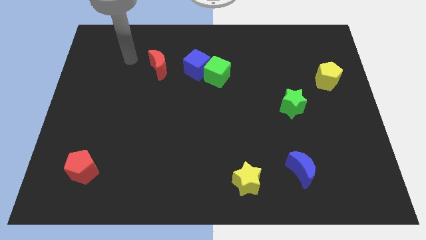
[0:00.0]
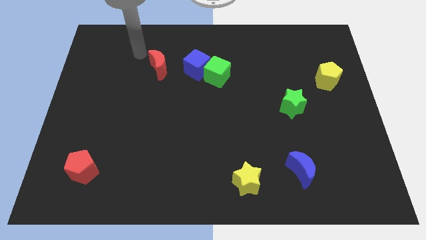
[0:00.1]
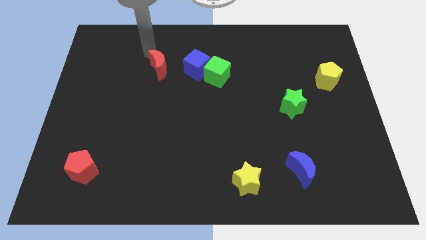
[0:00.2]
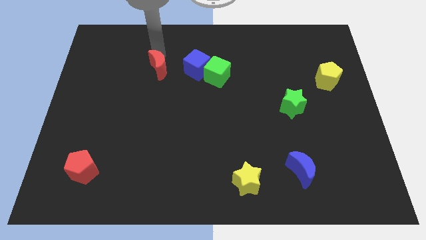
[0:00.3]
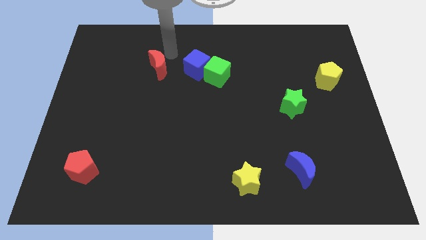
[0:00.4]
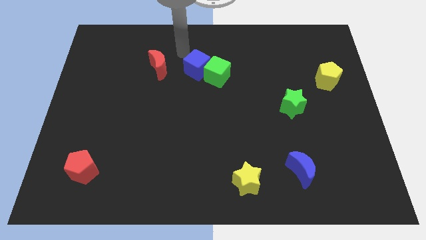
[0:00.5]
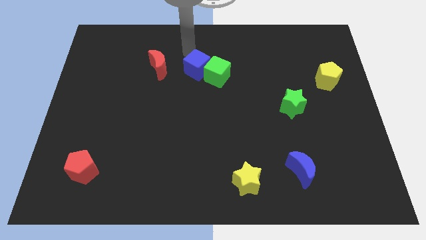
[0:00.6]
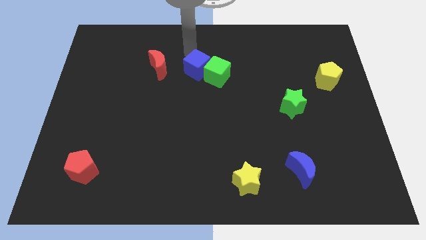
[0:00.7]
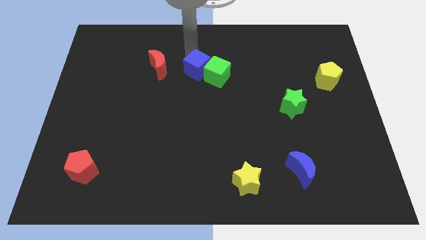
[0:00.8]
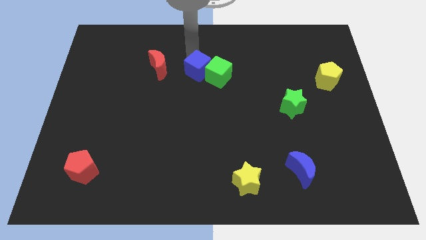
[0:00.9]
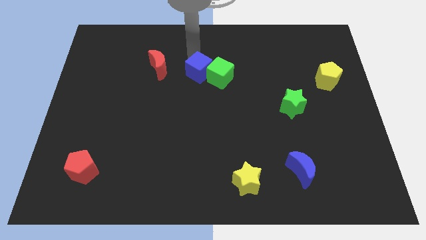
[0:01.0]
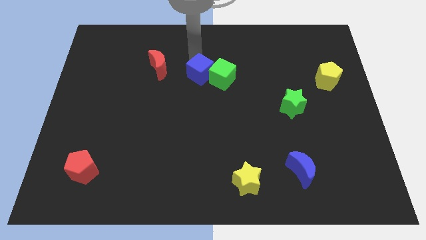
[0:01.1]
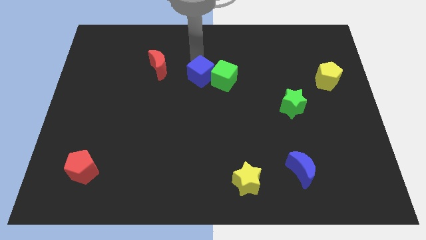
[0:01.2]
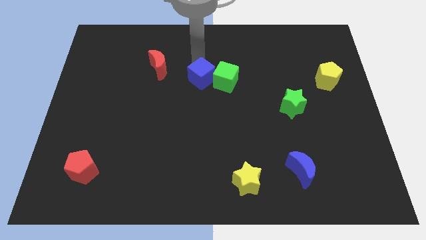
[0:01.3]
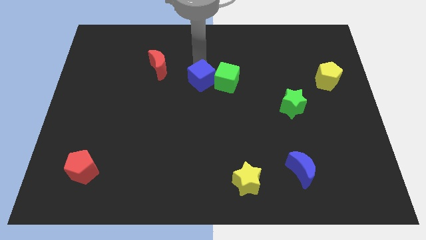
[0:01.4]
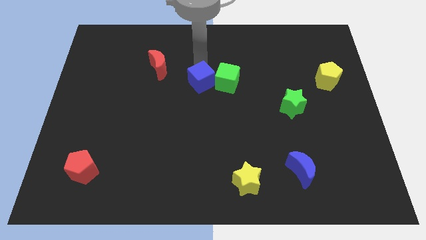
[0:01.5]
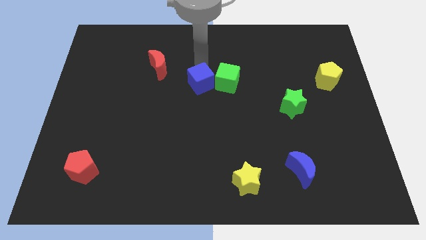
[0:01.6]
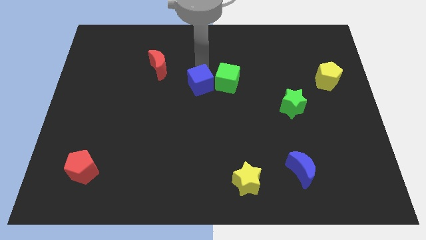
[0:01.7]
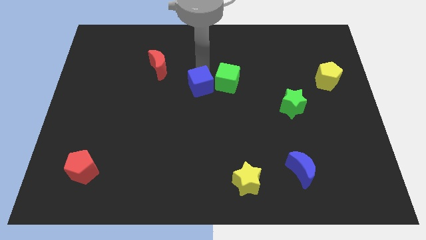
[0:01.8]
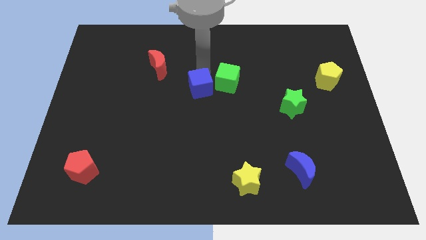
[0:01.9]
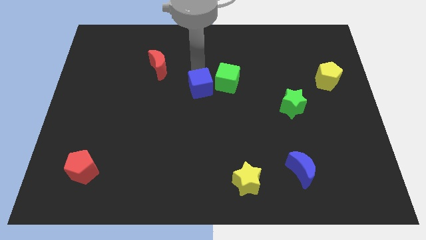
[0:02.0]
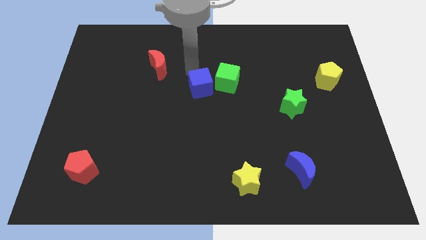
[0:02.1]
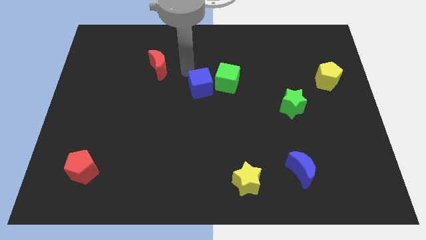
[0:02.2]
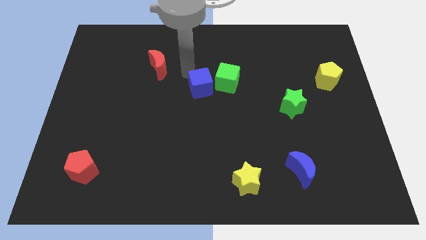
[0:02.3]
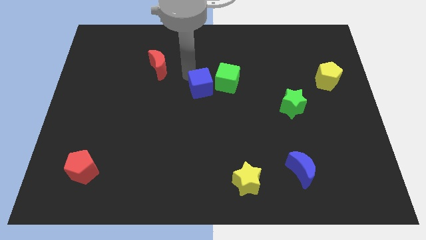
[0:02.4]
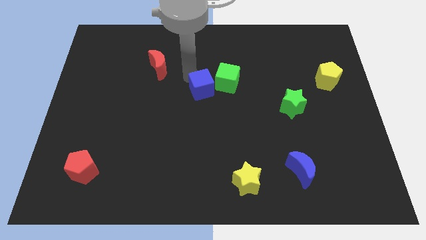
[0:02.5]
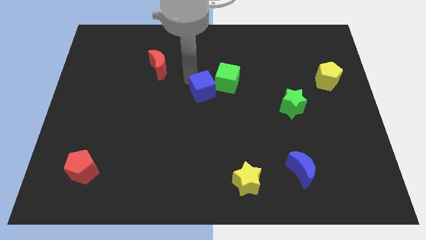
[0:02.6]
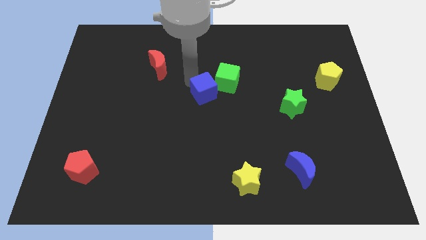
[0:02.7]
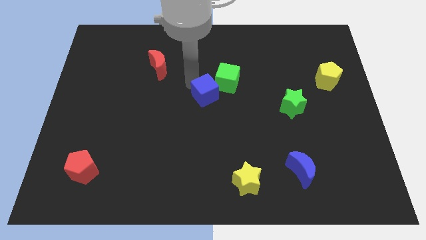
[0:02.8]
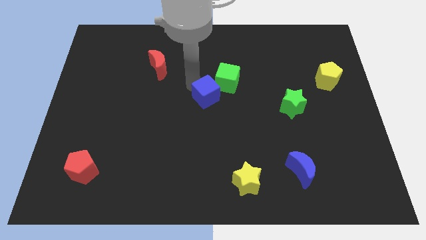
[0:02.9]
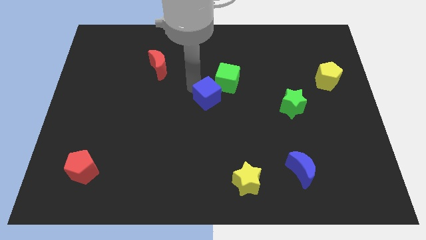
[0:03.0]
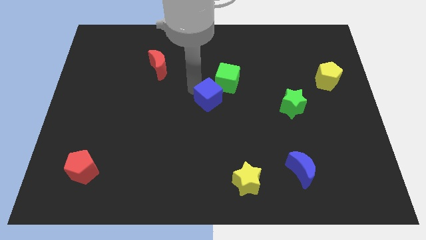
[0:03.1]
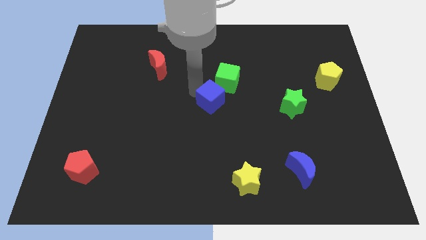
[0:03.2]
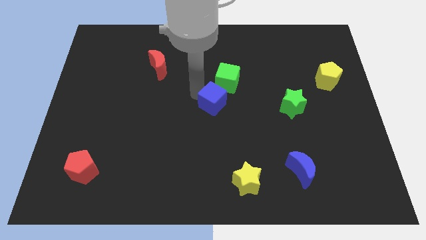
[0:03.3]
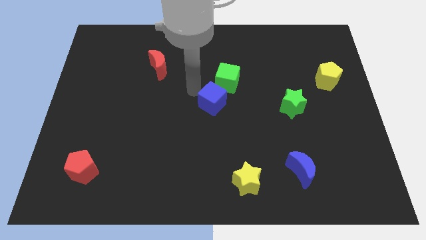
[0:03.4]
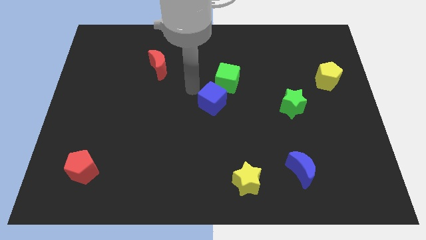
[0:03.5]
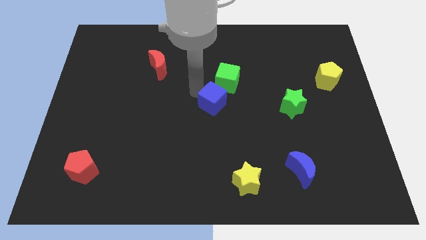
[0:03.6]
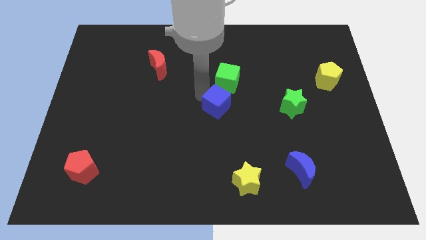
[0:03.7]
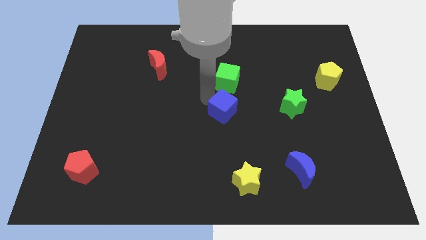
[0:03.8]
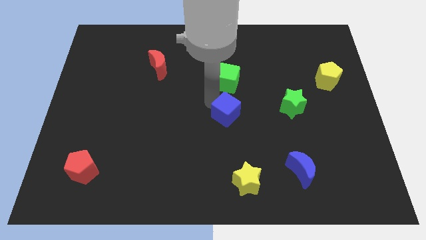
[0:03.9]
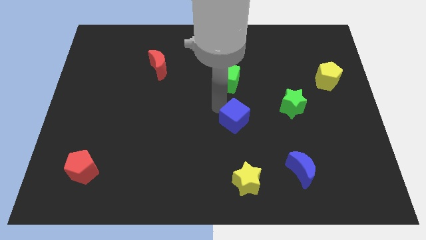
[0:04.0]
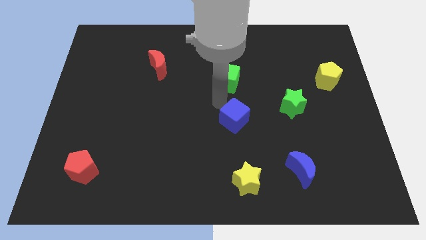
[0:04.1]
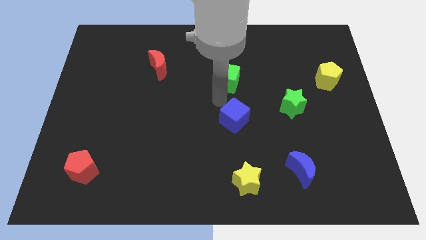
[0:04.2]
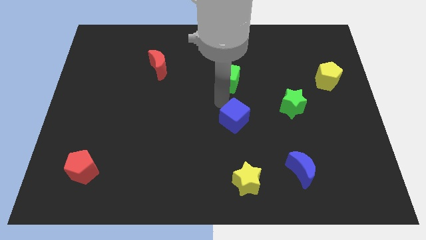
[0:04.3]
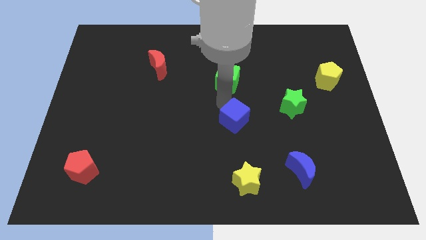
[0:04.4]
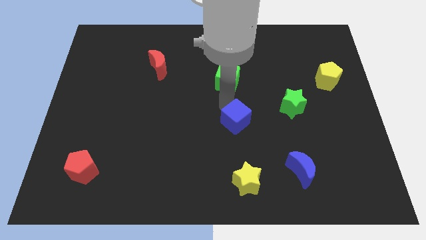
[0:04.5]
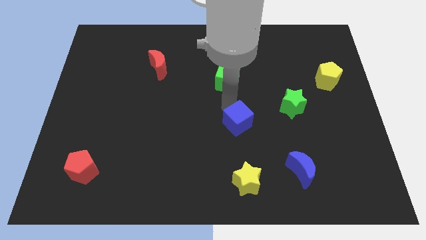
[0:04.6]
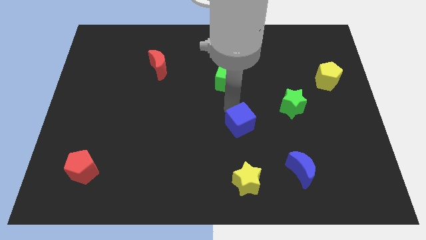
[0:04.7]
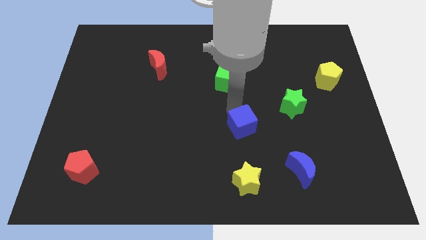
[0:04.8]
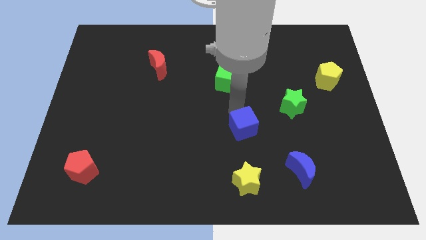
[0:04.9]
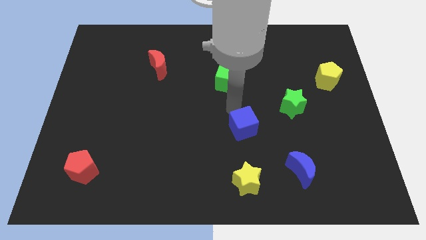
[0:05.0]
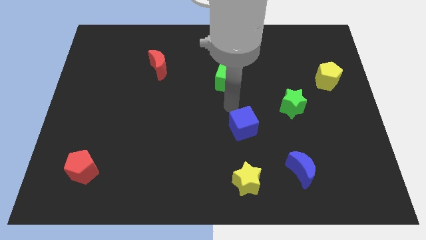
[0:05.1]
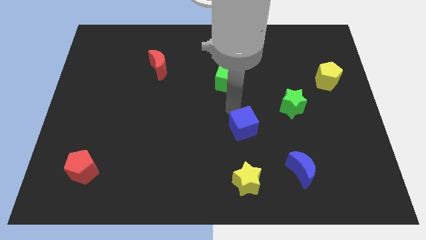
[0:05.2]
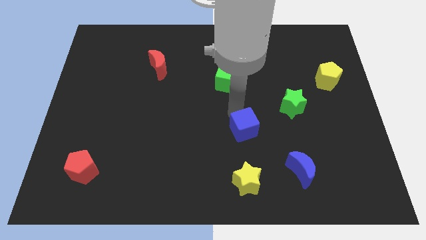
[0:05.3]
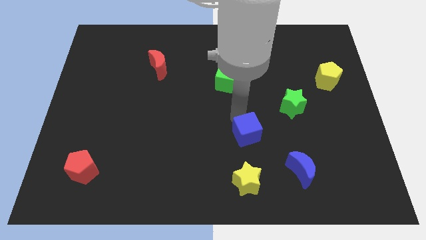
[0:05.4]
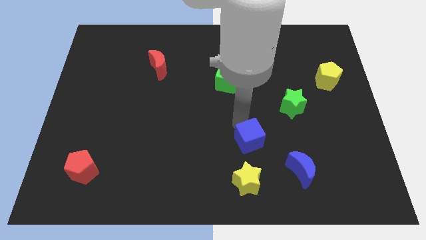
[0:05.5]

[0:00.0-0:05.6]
slide the blue cube diagonally up and to the left of the blue moon

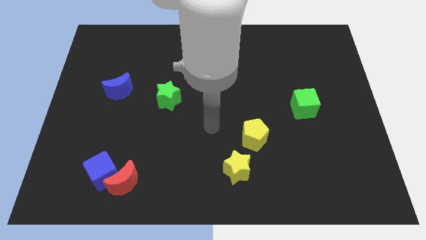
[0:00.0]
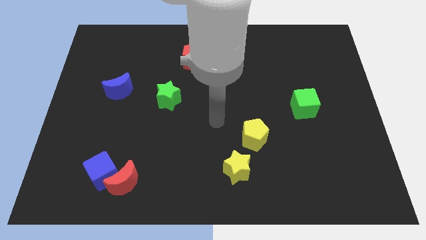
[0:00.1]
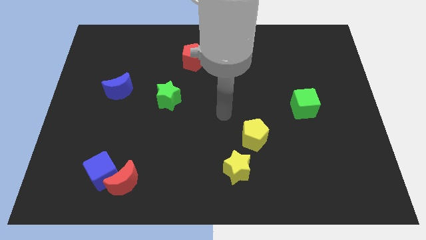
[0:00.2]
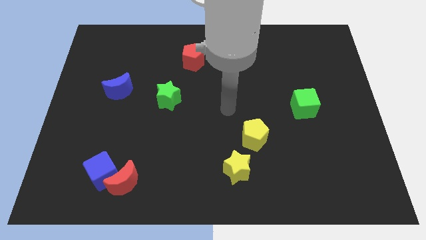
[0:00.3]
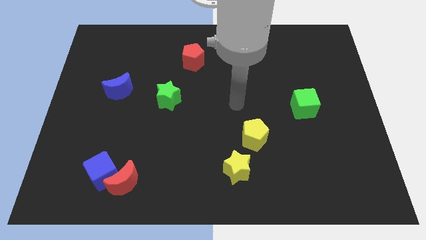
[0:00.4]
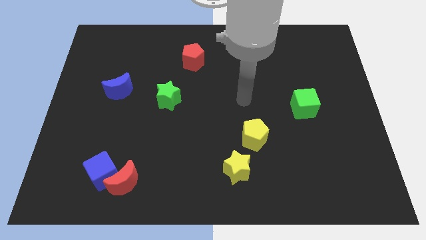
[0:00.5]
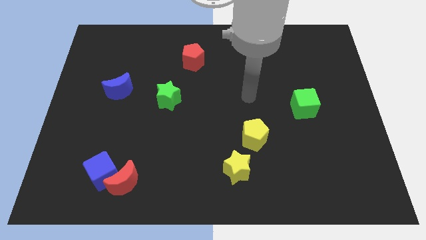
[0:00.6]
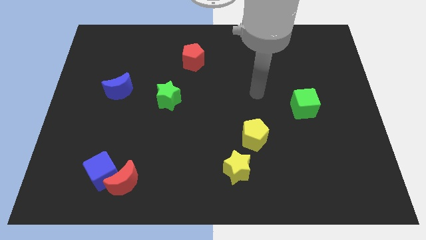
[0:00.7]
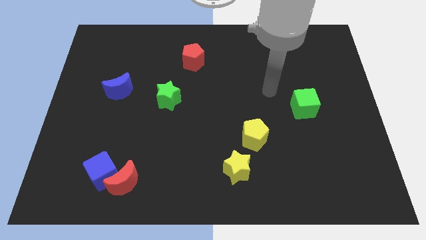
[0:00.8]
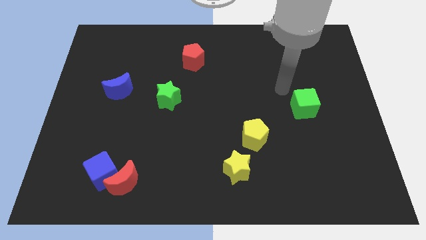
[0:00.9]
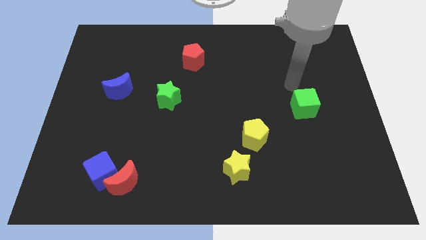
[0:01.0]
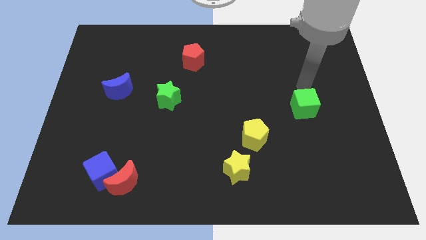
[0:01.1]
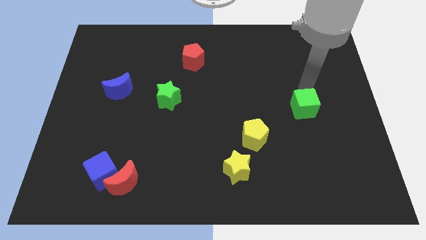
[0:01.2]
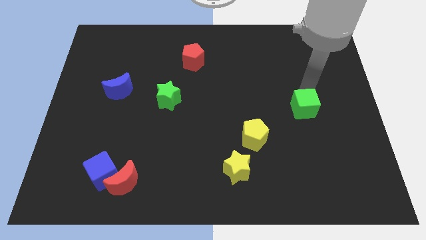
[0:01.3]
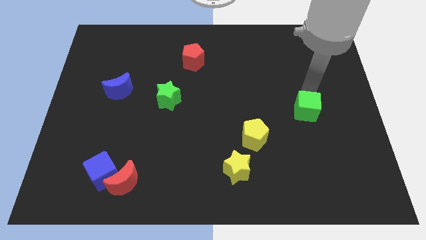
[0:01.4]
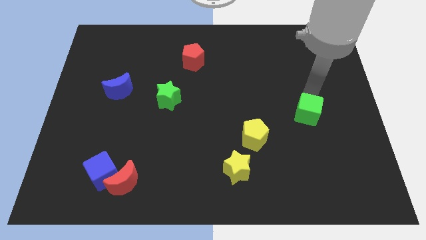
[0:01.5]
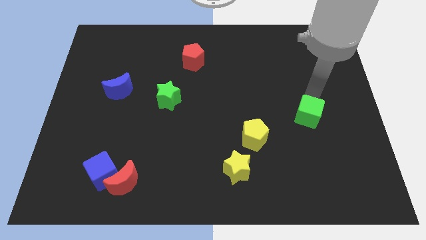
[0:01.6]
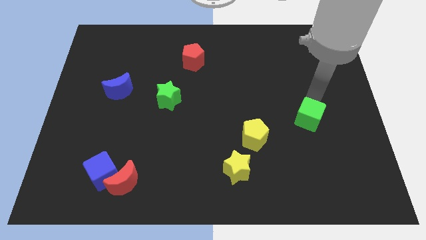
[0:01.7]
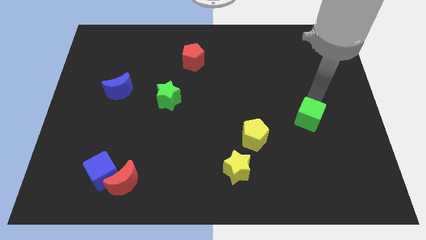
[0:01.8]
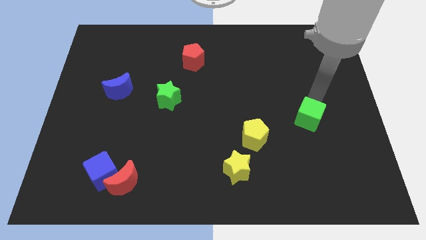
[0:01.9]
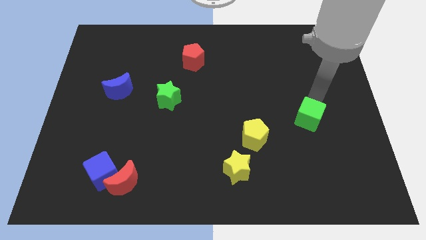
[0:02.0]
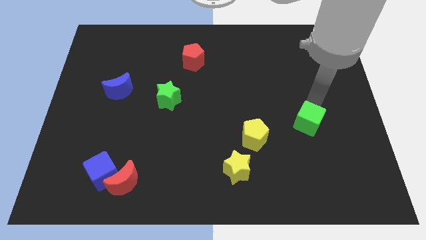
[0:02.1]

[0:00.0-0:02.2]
push the green cube to the right side of the yellow pentagon
